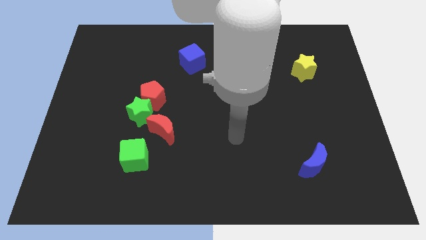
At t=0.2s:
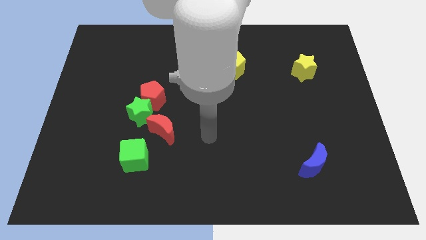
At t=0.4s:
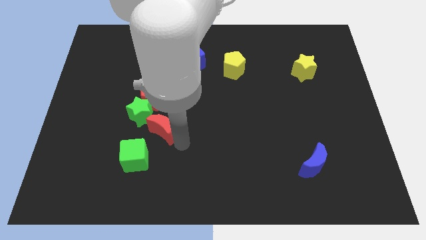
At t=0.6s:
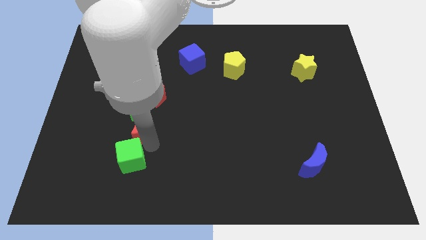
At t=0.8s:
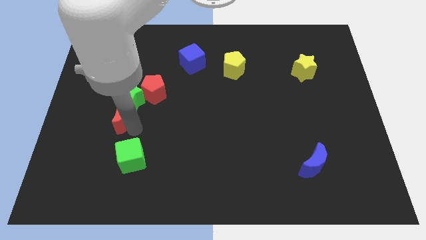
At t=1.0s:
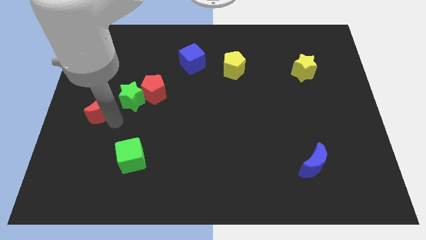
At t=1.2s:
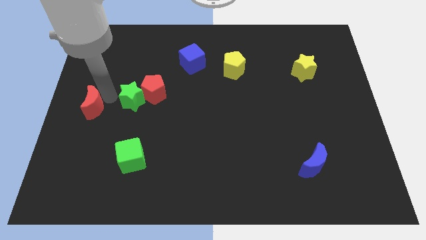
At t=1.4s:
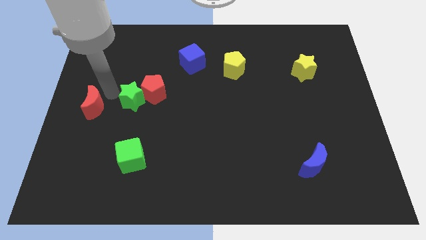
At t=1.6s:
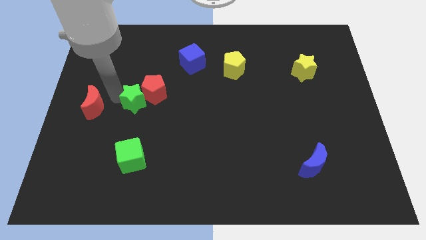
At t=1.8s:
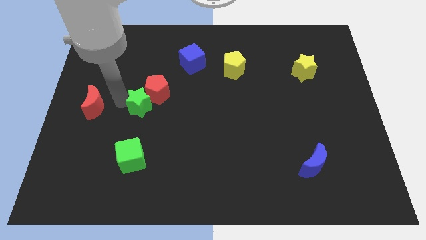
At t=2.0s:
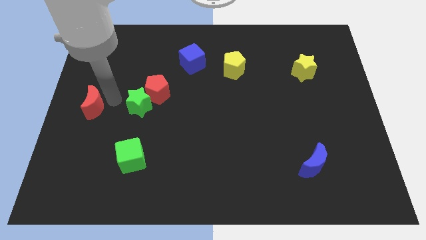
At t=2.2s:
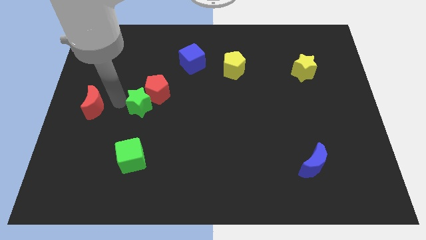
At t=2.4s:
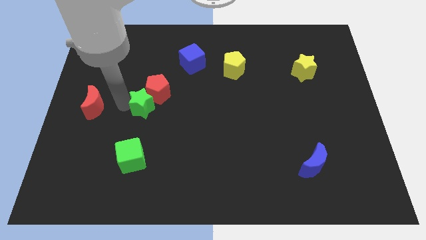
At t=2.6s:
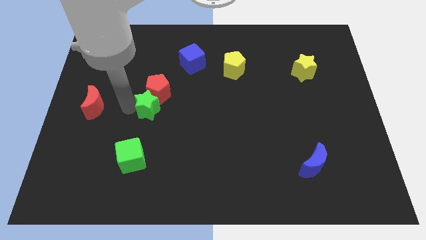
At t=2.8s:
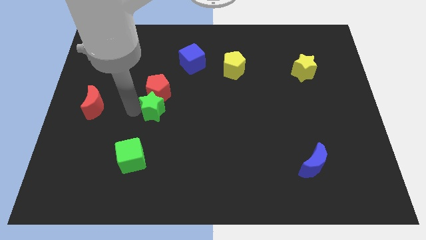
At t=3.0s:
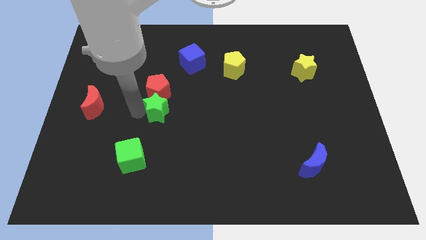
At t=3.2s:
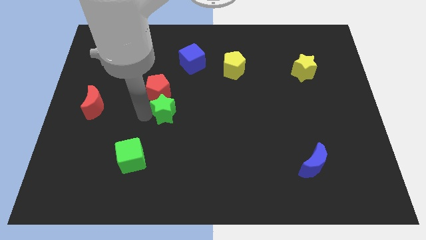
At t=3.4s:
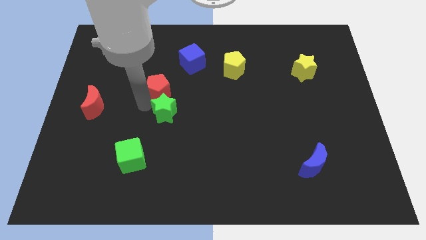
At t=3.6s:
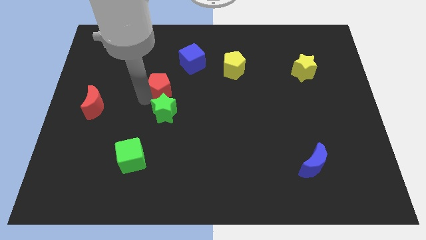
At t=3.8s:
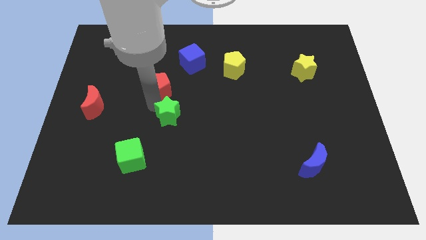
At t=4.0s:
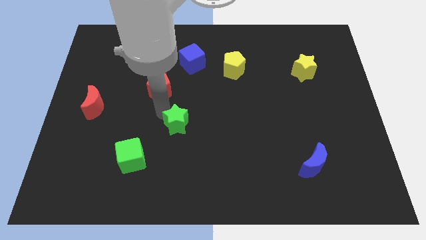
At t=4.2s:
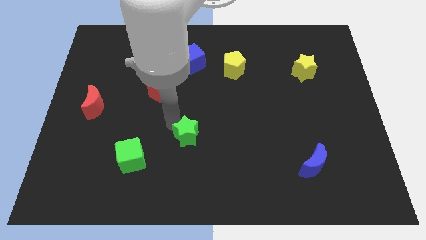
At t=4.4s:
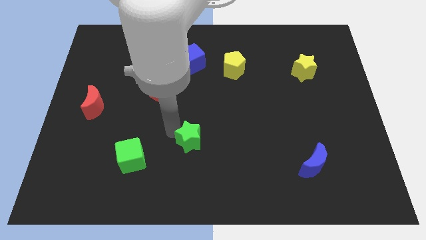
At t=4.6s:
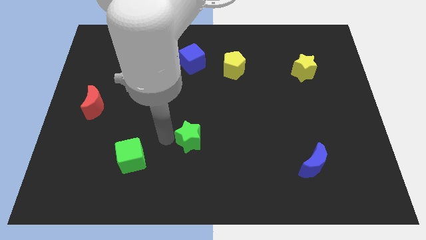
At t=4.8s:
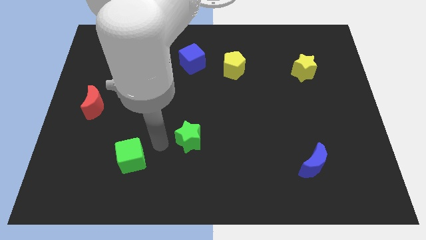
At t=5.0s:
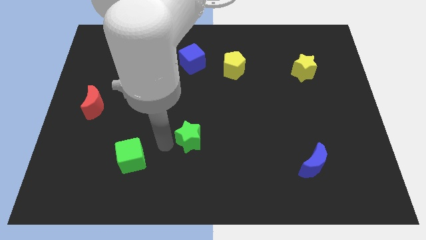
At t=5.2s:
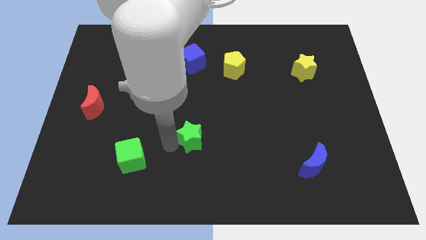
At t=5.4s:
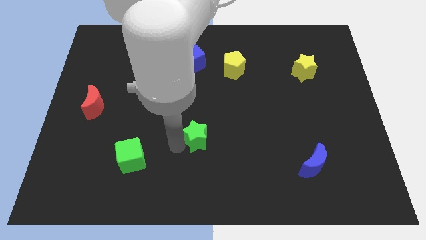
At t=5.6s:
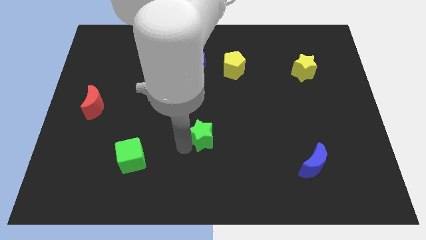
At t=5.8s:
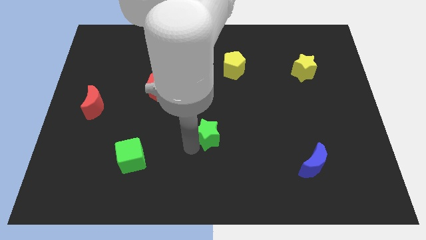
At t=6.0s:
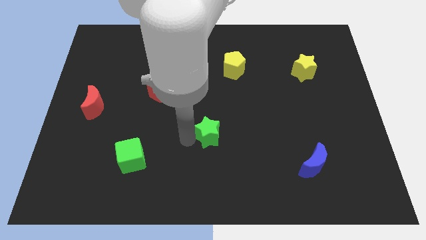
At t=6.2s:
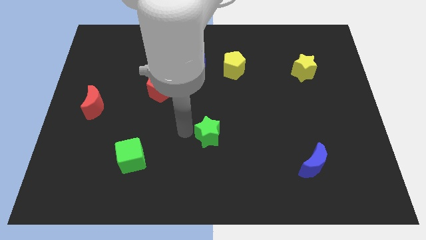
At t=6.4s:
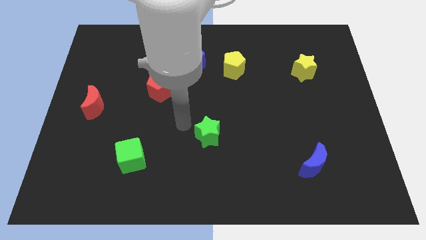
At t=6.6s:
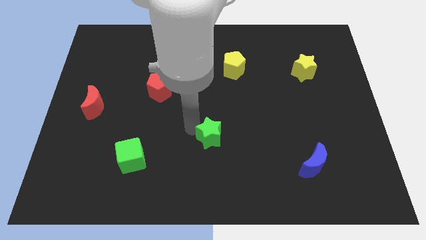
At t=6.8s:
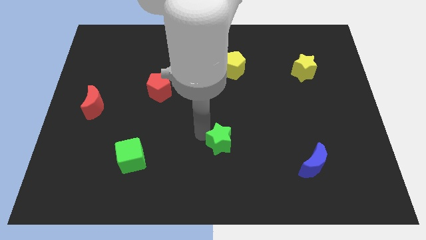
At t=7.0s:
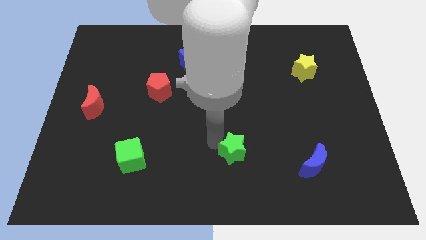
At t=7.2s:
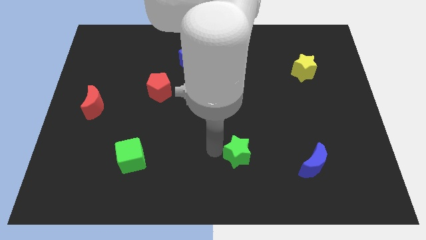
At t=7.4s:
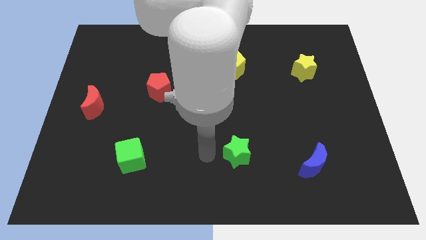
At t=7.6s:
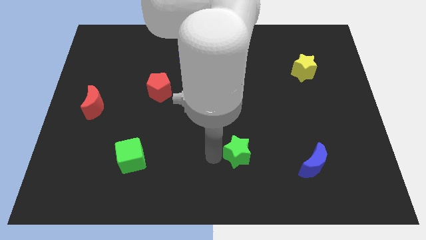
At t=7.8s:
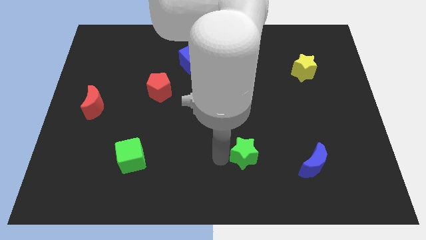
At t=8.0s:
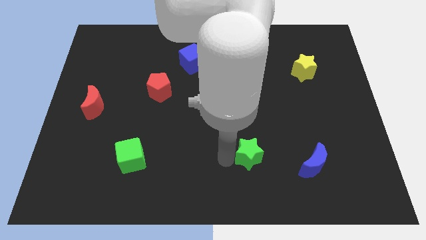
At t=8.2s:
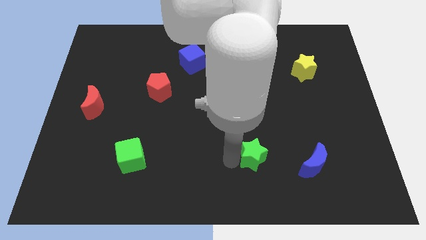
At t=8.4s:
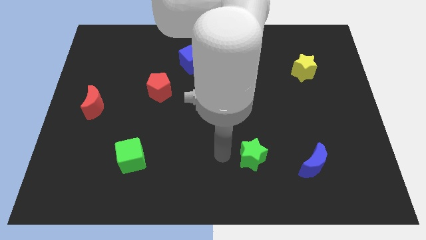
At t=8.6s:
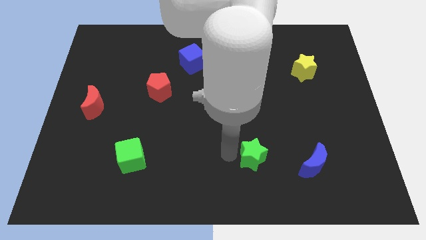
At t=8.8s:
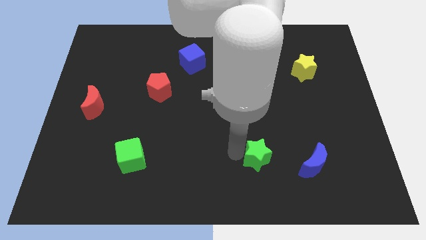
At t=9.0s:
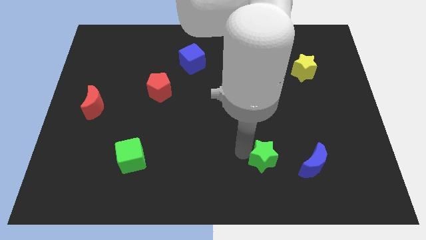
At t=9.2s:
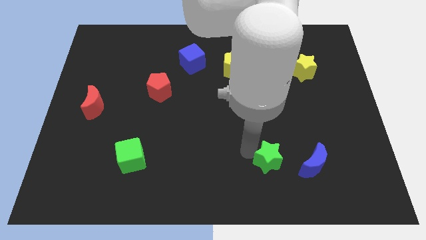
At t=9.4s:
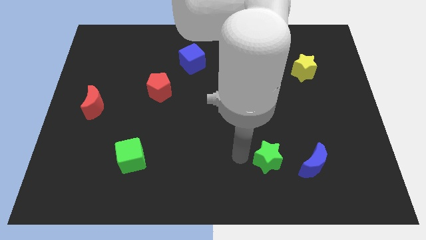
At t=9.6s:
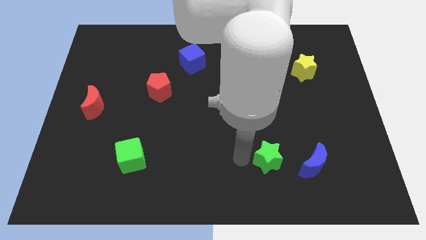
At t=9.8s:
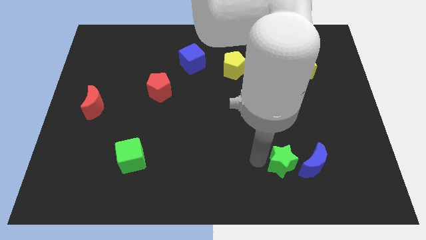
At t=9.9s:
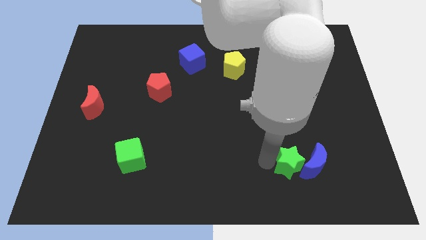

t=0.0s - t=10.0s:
slide the green star towards the blue moon

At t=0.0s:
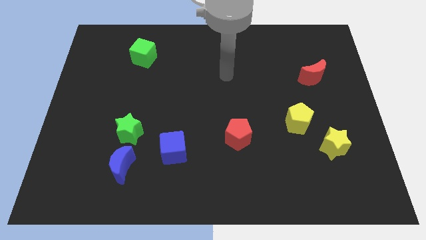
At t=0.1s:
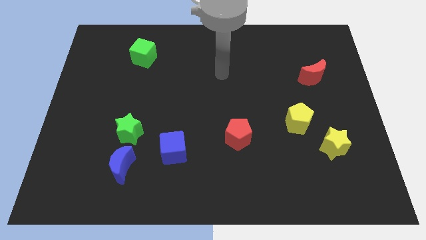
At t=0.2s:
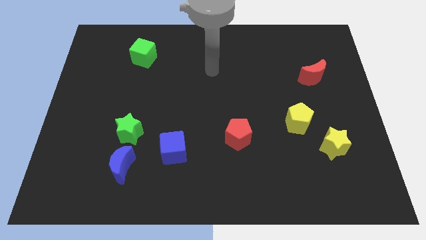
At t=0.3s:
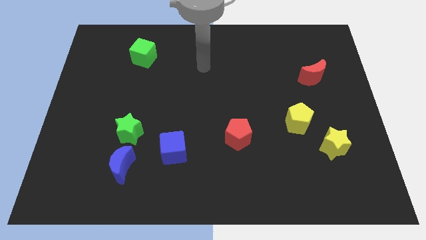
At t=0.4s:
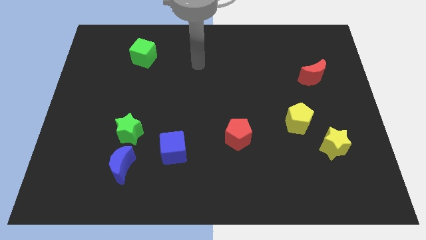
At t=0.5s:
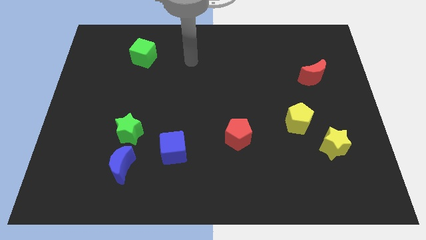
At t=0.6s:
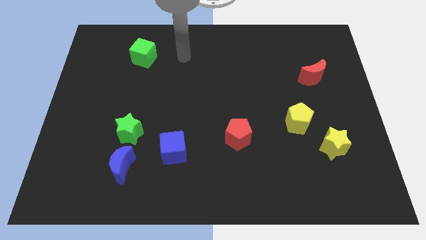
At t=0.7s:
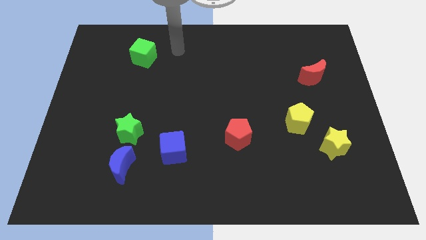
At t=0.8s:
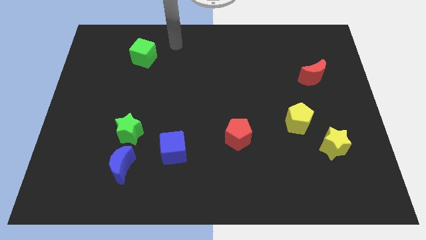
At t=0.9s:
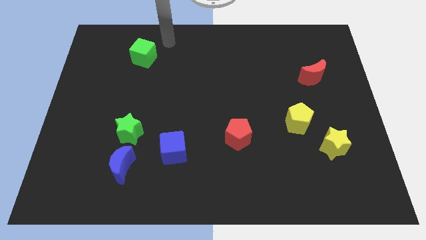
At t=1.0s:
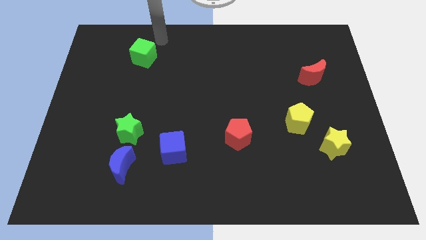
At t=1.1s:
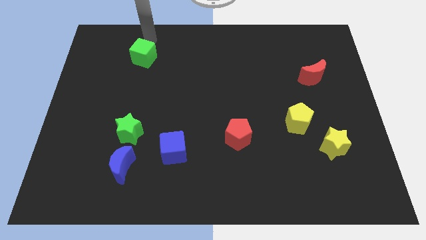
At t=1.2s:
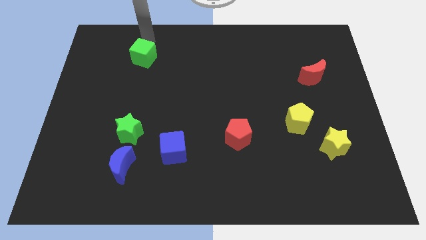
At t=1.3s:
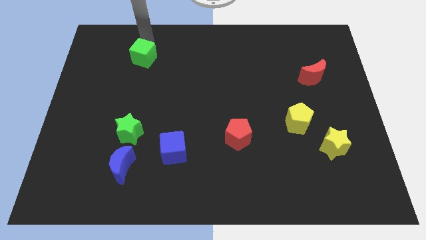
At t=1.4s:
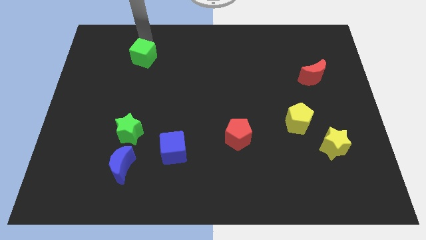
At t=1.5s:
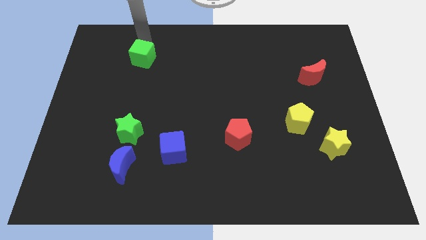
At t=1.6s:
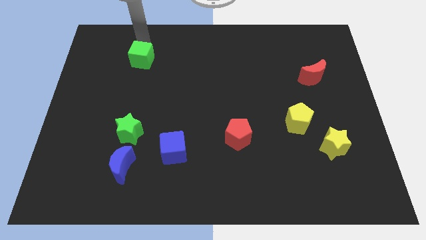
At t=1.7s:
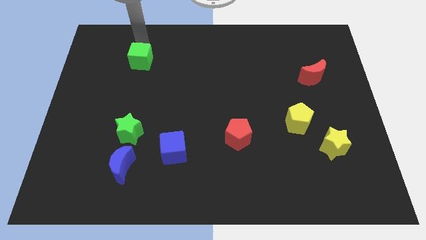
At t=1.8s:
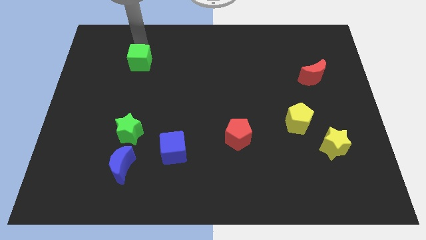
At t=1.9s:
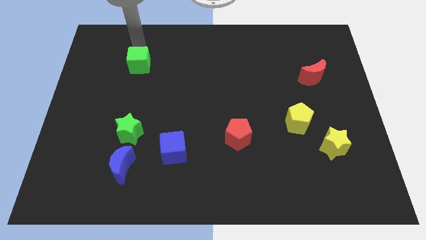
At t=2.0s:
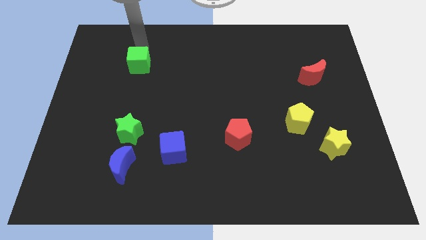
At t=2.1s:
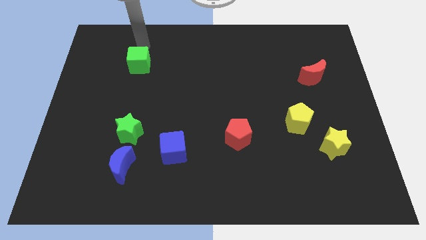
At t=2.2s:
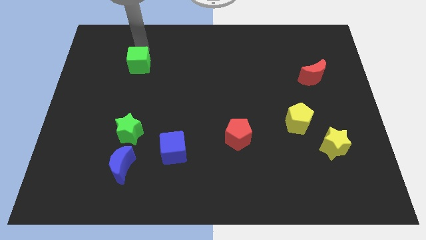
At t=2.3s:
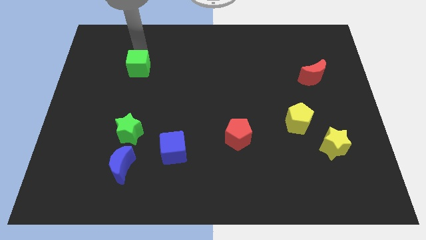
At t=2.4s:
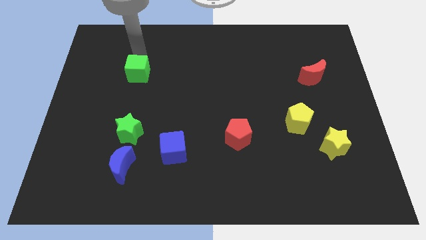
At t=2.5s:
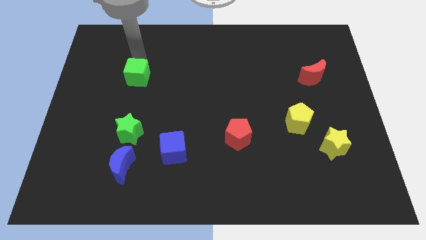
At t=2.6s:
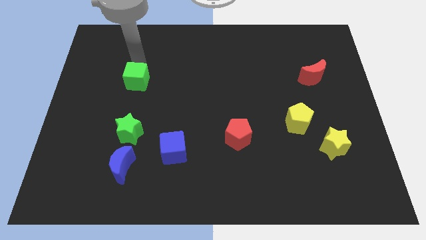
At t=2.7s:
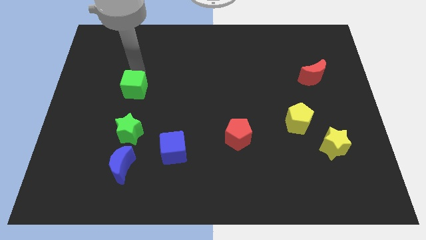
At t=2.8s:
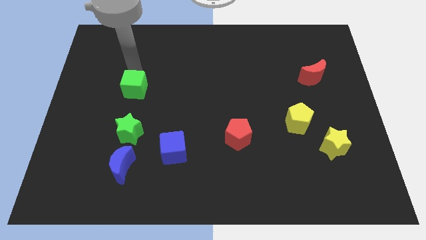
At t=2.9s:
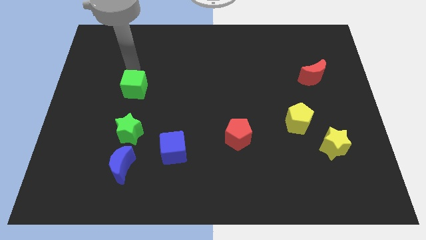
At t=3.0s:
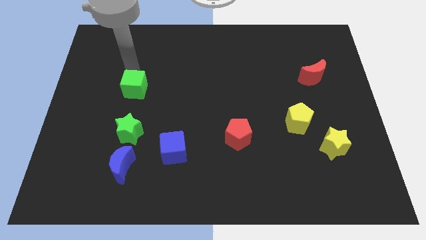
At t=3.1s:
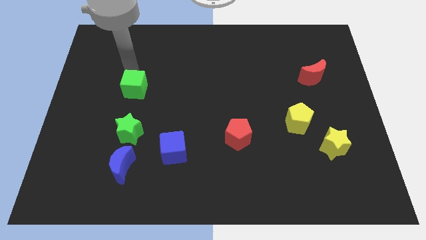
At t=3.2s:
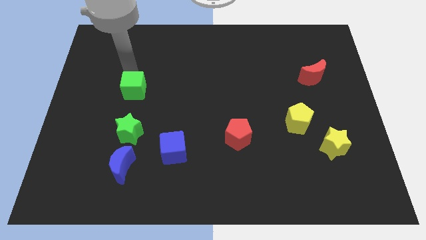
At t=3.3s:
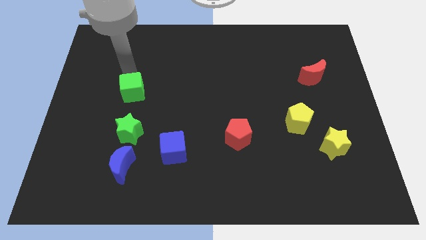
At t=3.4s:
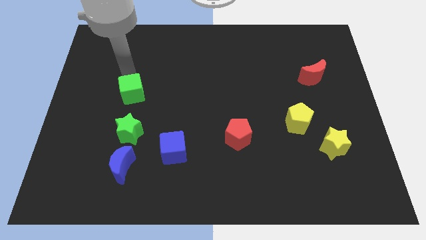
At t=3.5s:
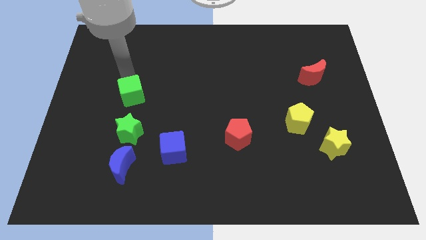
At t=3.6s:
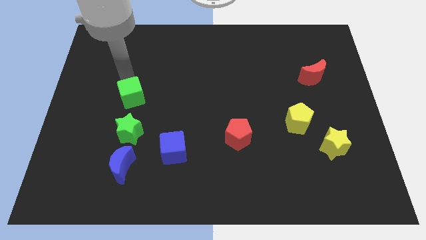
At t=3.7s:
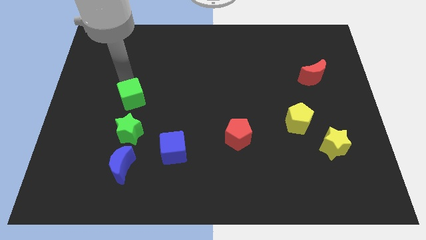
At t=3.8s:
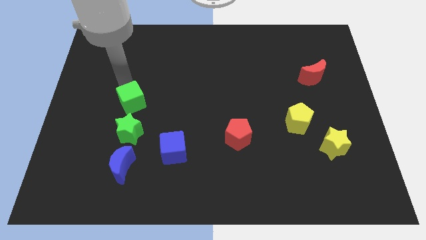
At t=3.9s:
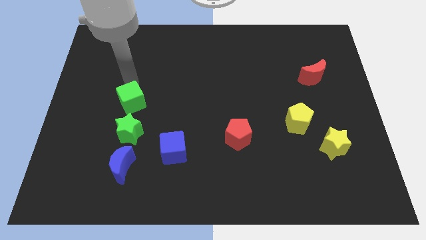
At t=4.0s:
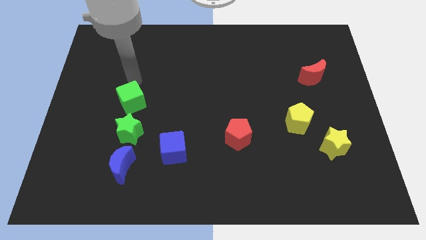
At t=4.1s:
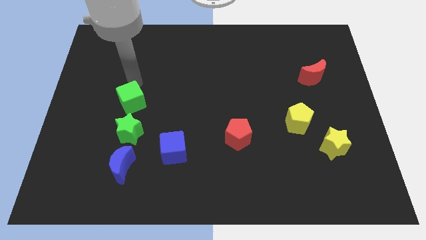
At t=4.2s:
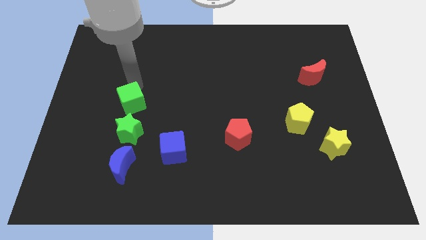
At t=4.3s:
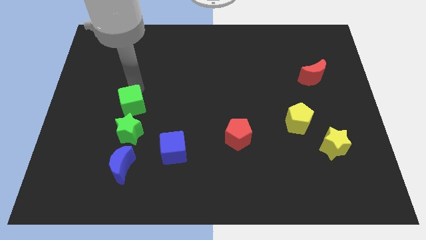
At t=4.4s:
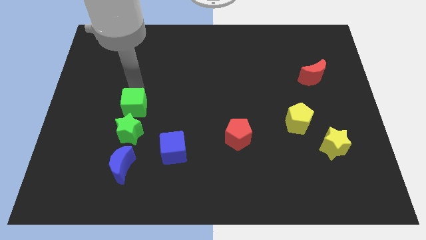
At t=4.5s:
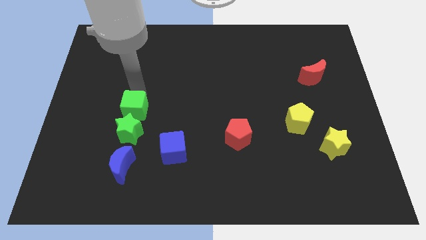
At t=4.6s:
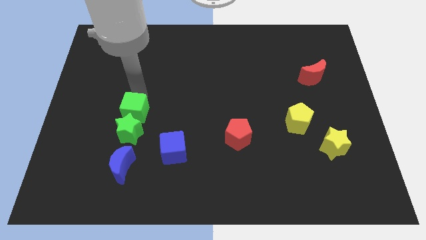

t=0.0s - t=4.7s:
slide the green cube close to the green star
